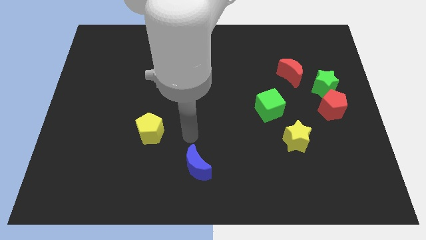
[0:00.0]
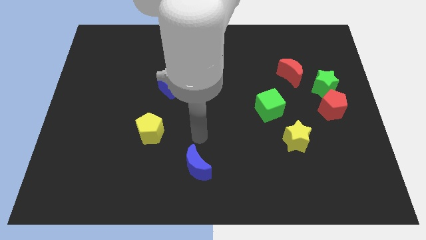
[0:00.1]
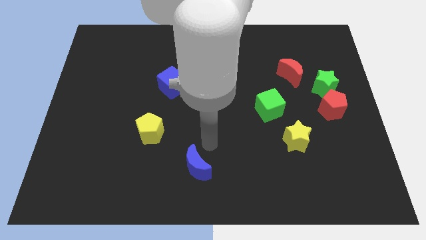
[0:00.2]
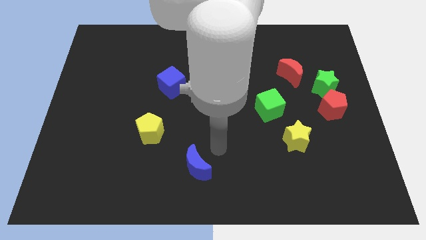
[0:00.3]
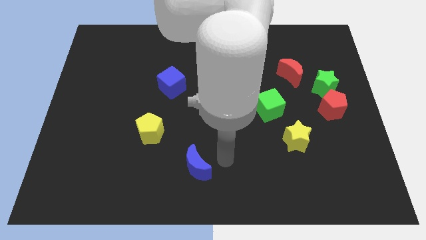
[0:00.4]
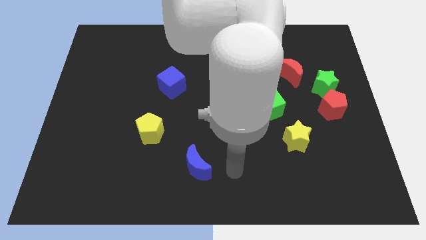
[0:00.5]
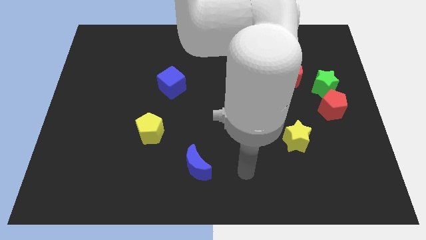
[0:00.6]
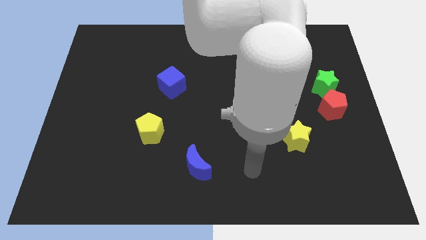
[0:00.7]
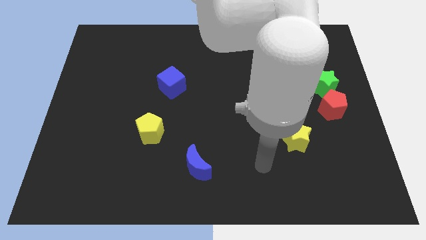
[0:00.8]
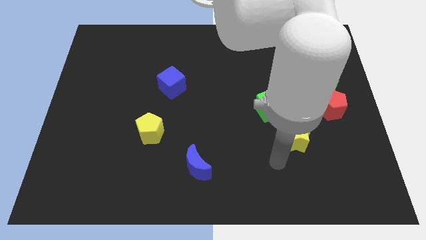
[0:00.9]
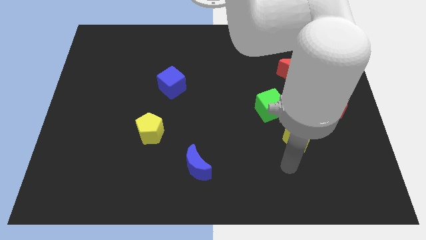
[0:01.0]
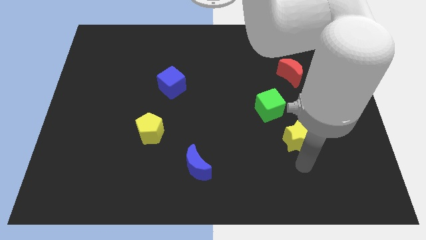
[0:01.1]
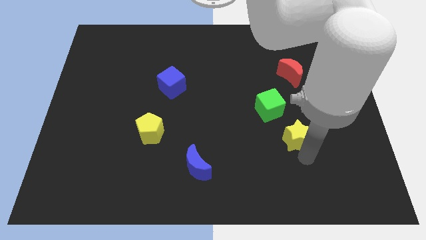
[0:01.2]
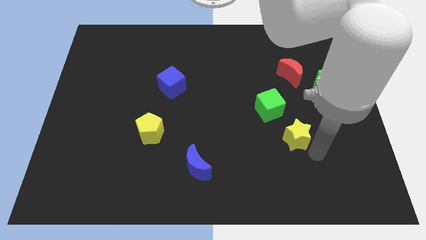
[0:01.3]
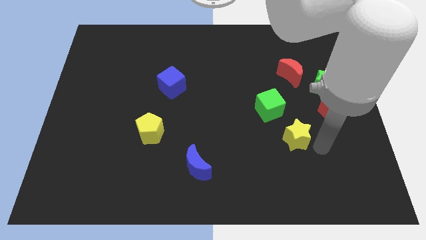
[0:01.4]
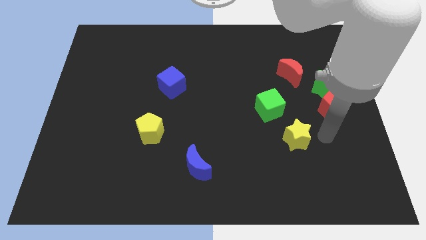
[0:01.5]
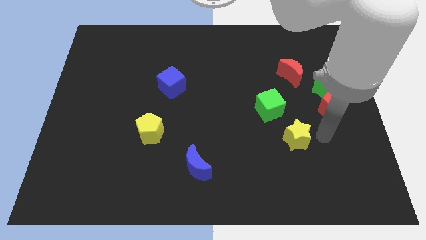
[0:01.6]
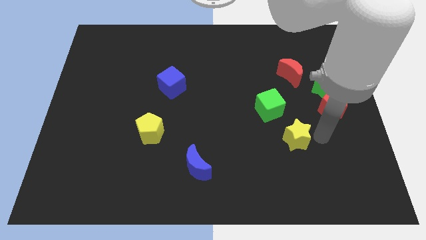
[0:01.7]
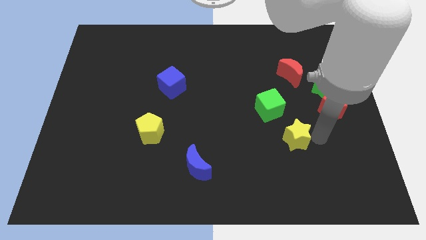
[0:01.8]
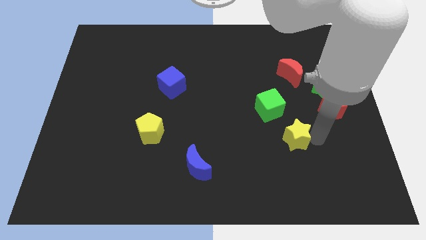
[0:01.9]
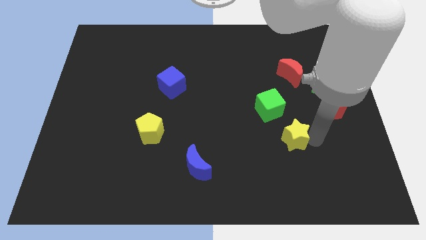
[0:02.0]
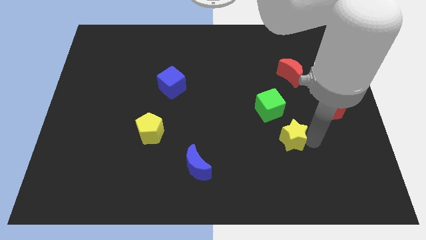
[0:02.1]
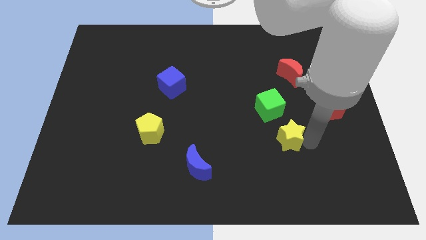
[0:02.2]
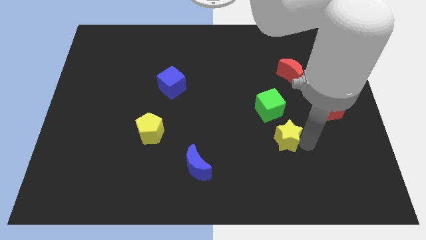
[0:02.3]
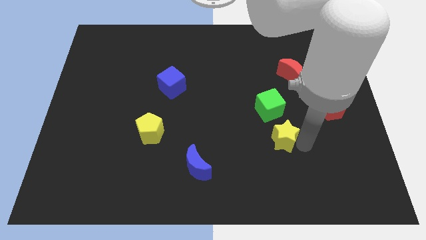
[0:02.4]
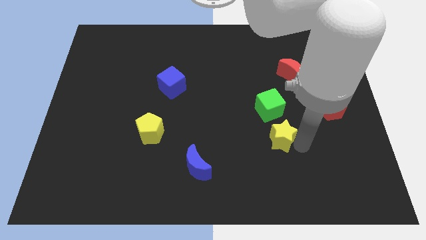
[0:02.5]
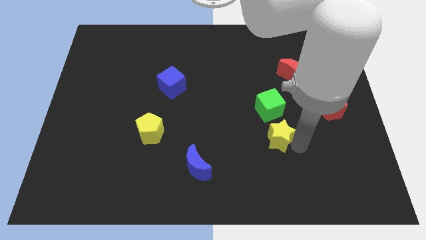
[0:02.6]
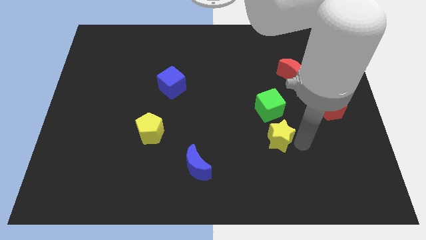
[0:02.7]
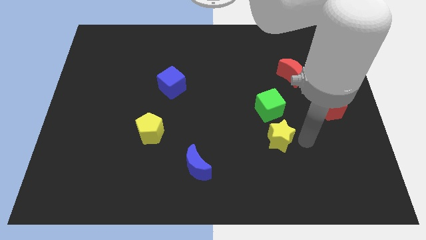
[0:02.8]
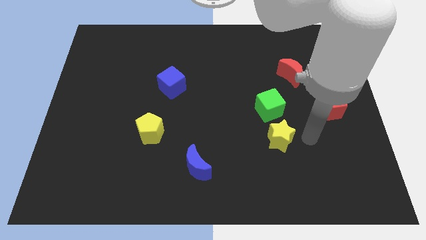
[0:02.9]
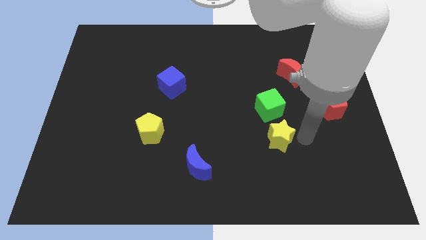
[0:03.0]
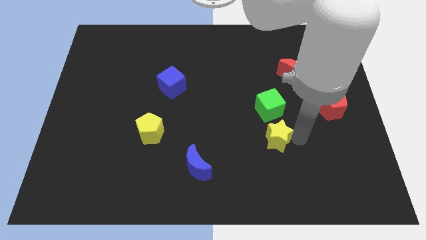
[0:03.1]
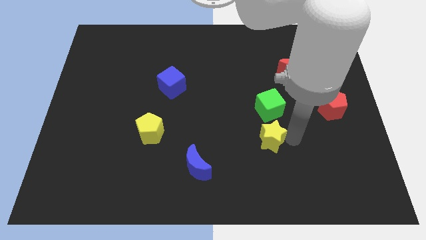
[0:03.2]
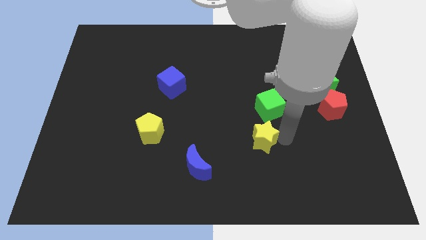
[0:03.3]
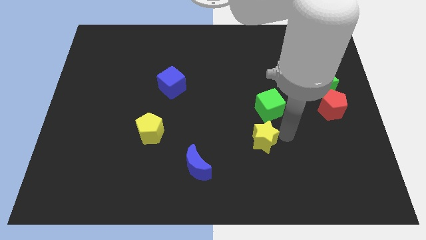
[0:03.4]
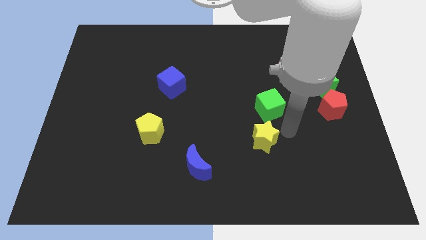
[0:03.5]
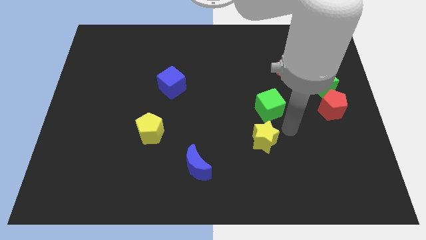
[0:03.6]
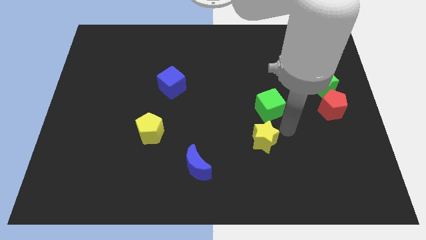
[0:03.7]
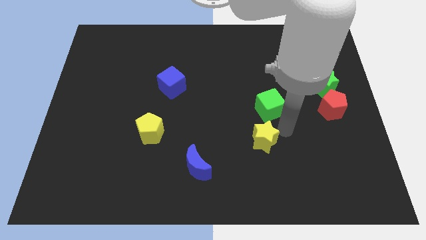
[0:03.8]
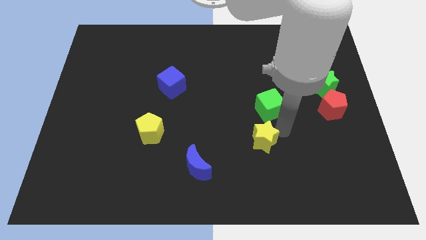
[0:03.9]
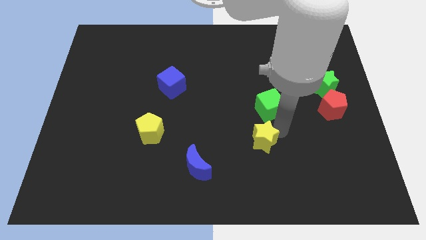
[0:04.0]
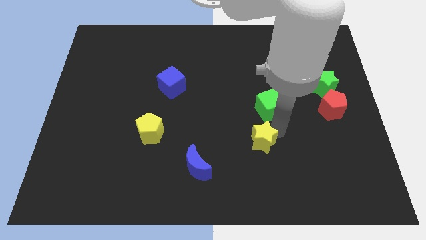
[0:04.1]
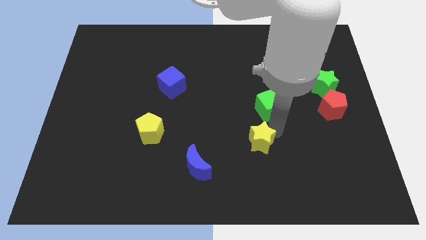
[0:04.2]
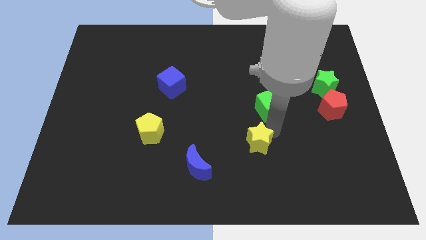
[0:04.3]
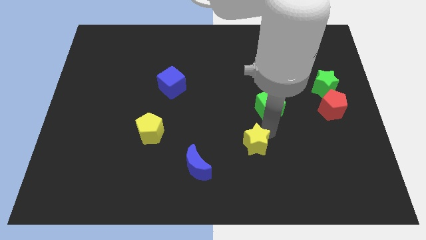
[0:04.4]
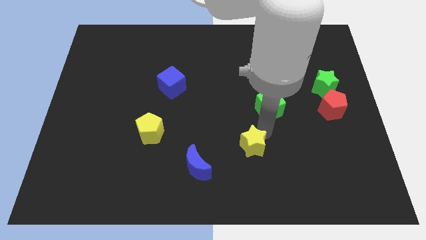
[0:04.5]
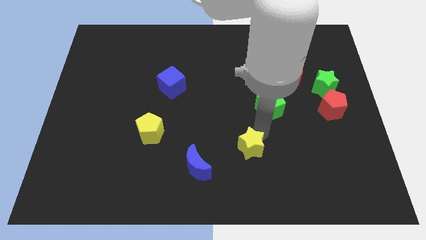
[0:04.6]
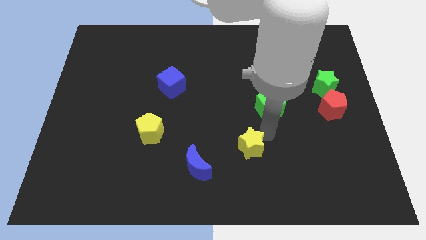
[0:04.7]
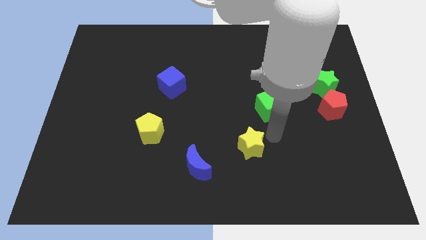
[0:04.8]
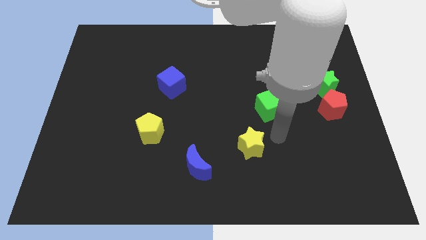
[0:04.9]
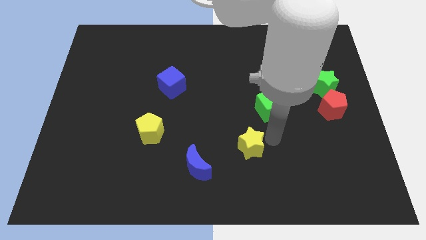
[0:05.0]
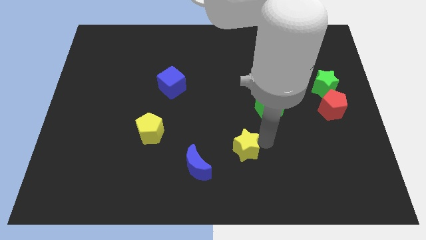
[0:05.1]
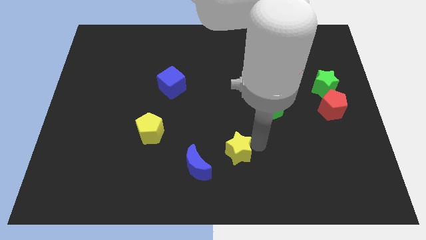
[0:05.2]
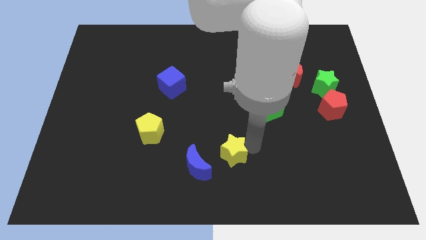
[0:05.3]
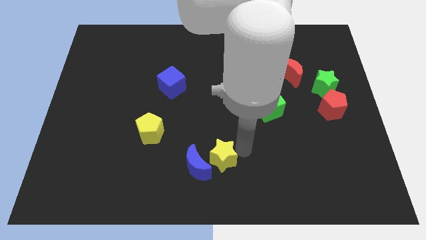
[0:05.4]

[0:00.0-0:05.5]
move the yellow star to the blue moon

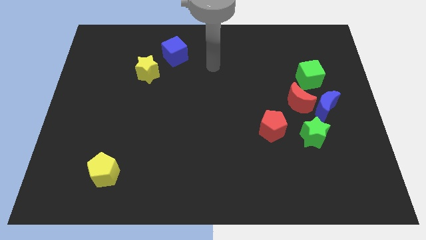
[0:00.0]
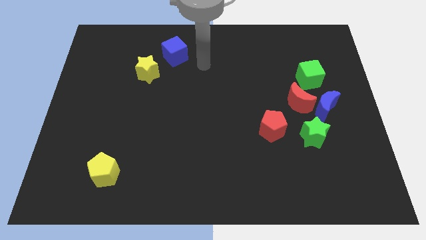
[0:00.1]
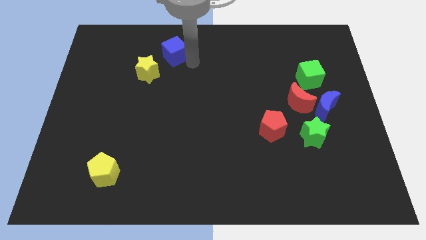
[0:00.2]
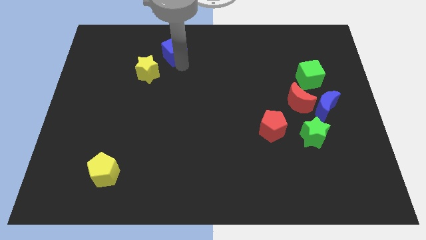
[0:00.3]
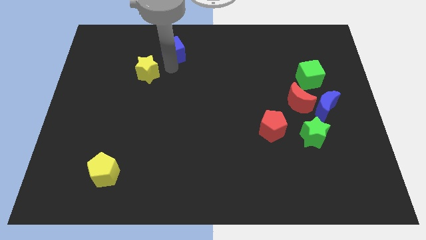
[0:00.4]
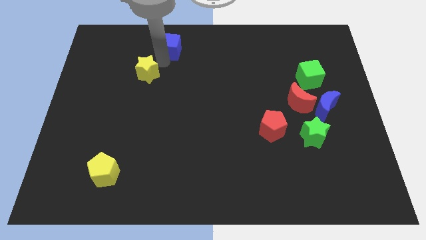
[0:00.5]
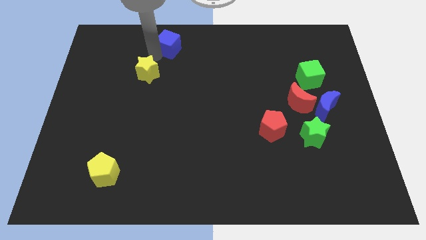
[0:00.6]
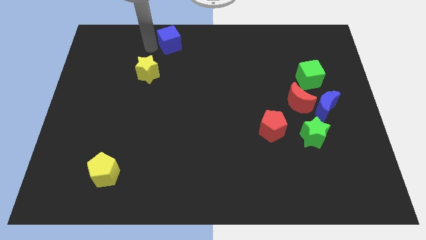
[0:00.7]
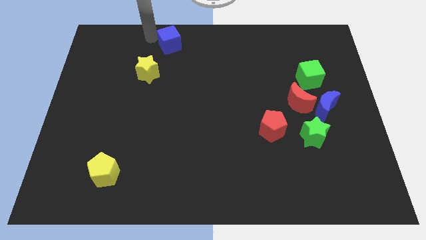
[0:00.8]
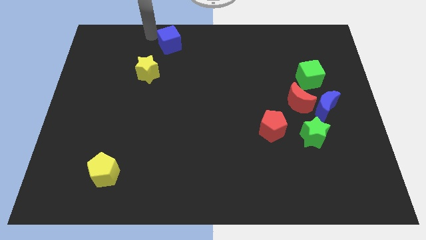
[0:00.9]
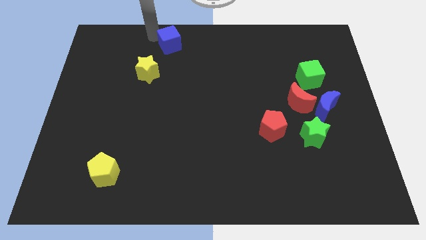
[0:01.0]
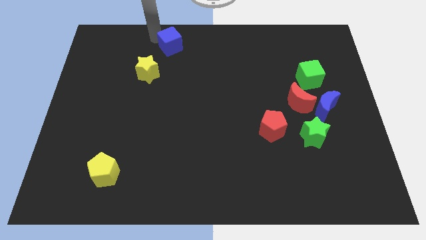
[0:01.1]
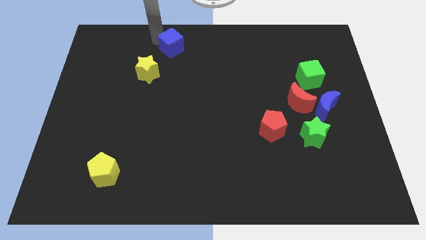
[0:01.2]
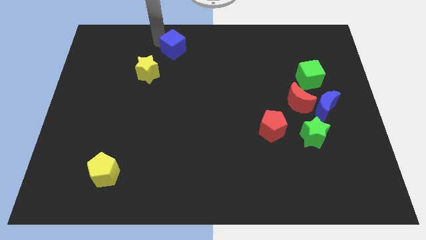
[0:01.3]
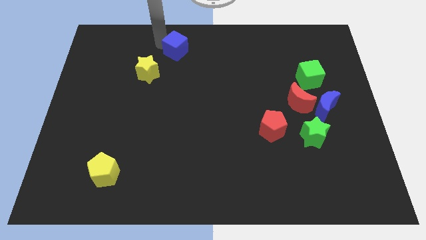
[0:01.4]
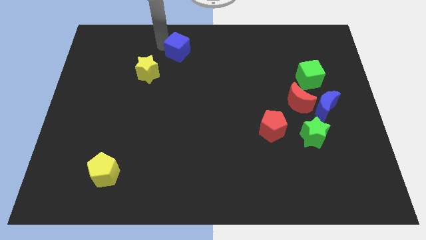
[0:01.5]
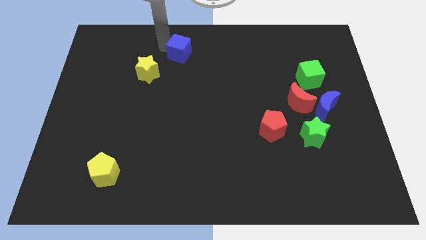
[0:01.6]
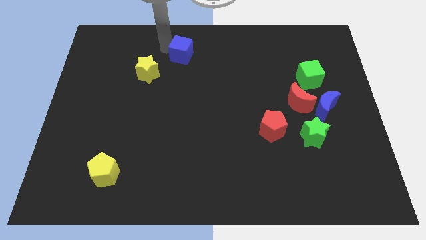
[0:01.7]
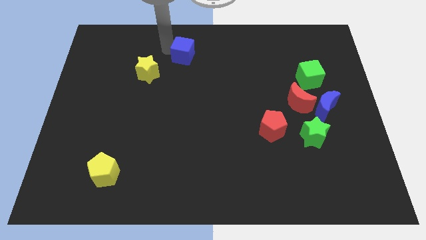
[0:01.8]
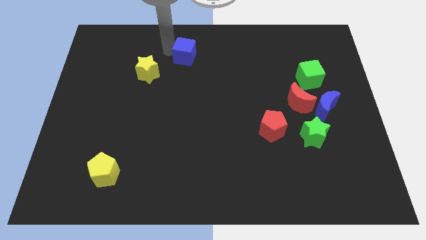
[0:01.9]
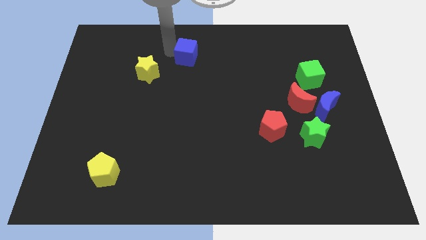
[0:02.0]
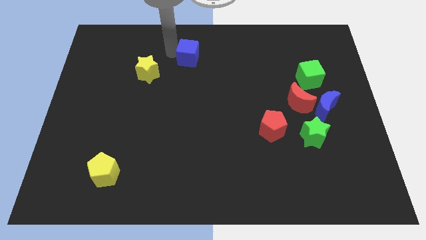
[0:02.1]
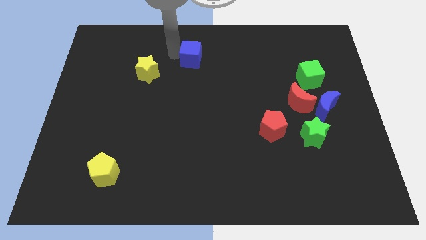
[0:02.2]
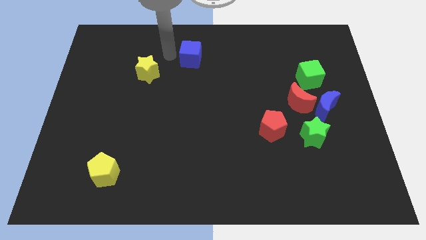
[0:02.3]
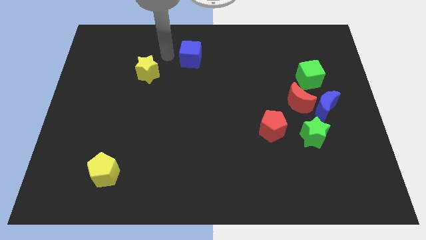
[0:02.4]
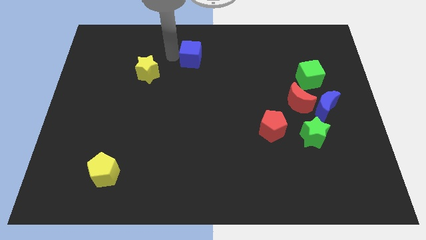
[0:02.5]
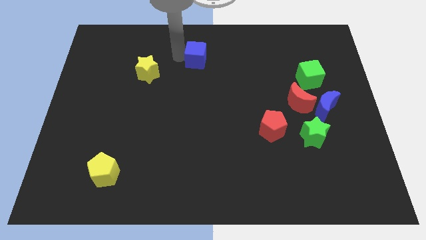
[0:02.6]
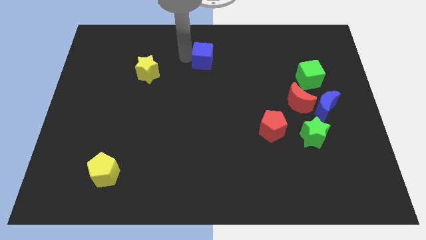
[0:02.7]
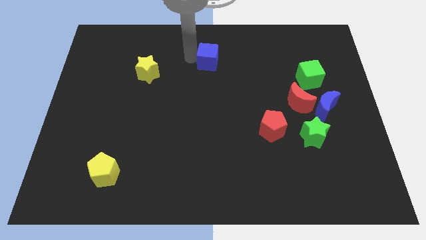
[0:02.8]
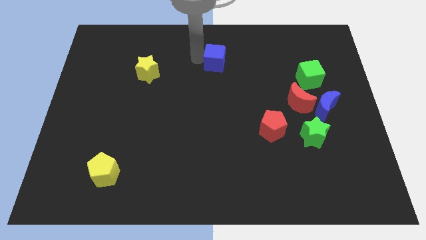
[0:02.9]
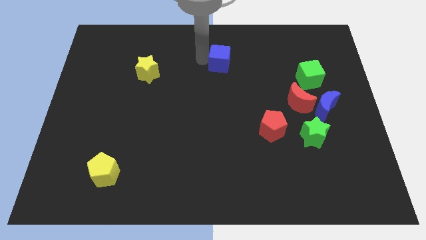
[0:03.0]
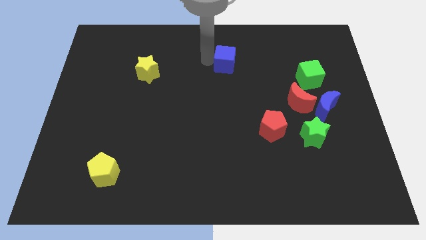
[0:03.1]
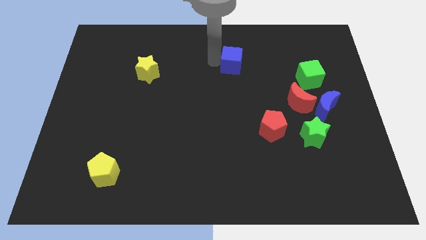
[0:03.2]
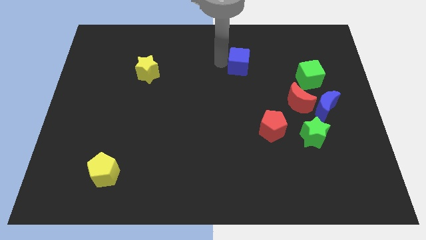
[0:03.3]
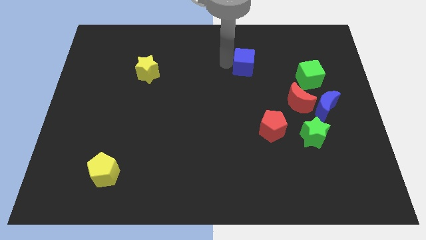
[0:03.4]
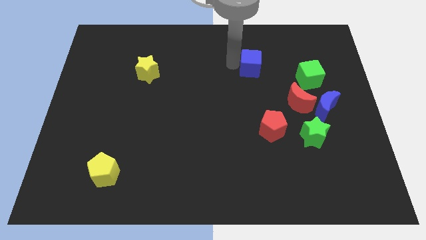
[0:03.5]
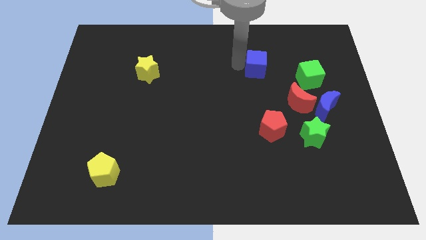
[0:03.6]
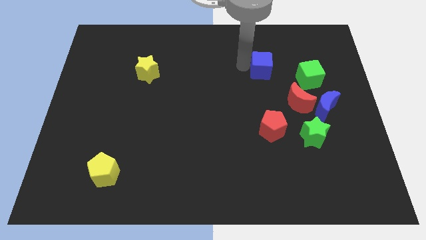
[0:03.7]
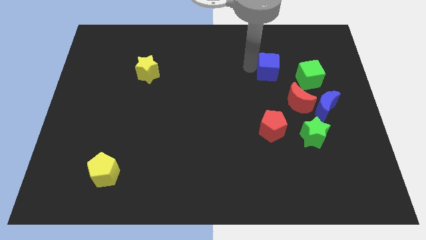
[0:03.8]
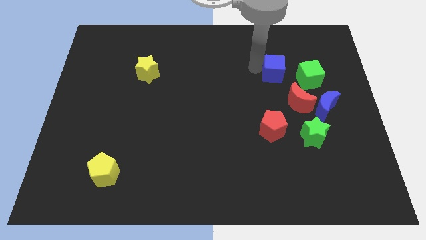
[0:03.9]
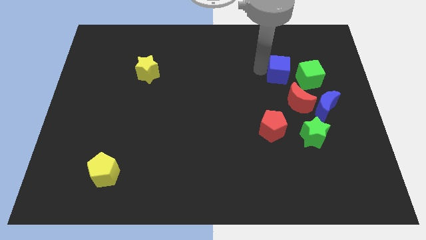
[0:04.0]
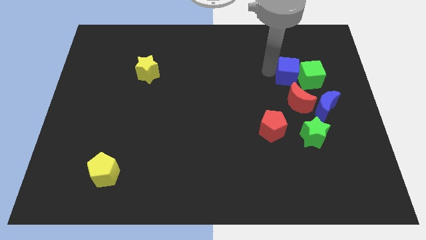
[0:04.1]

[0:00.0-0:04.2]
move the blue cube close to the green cube
